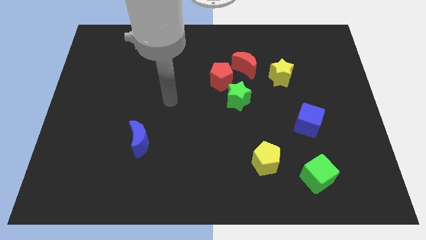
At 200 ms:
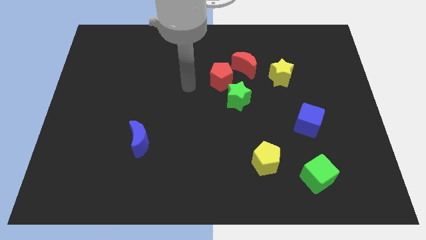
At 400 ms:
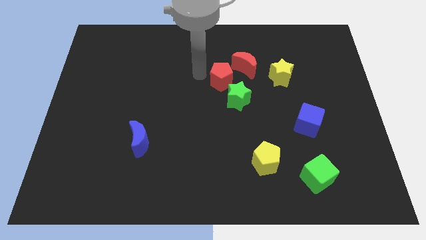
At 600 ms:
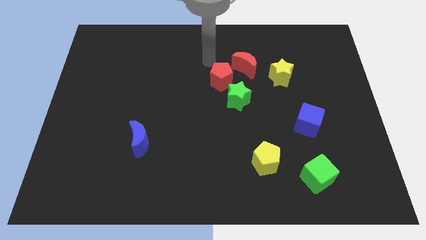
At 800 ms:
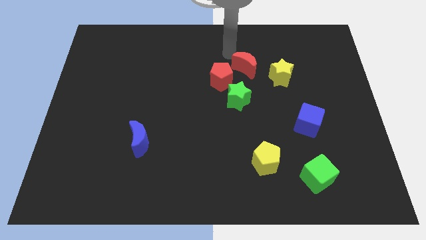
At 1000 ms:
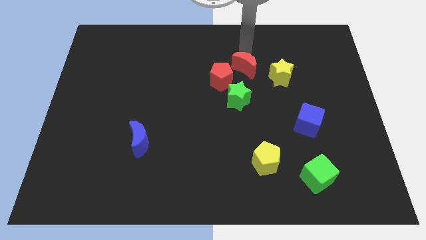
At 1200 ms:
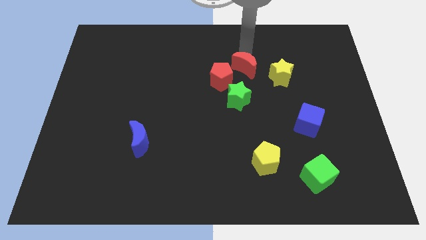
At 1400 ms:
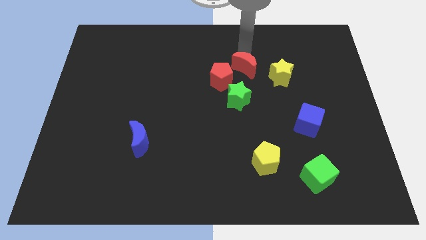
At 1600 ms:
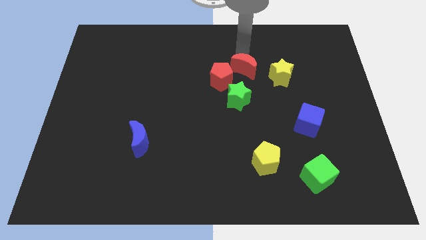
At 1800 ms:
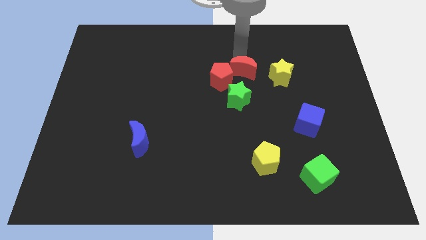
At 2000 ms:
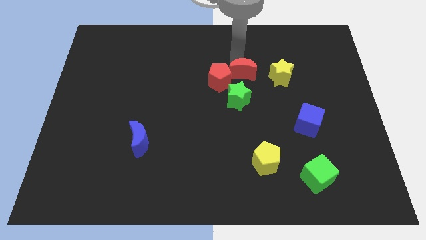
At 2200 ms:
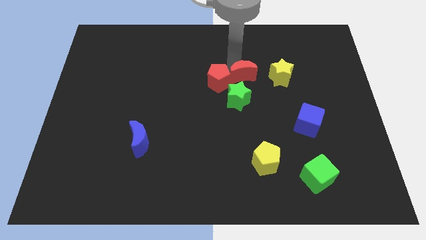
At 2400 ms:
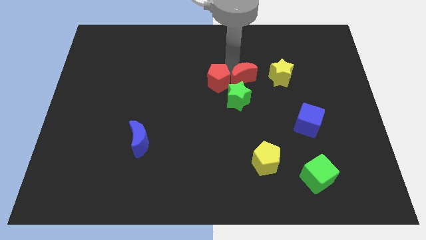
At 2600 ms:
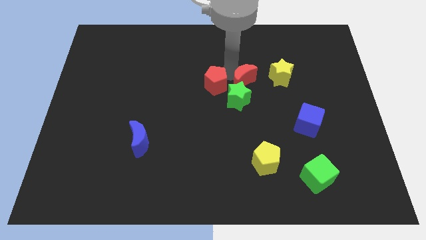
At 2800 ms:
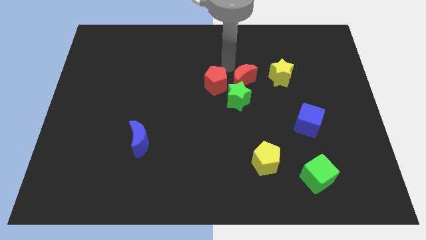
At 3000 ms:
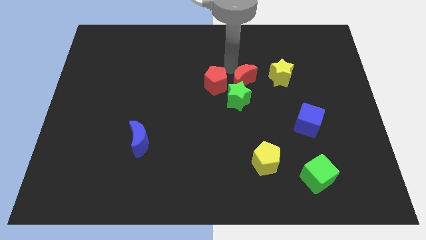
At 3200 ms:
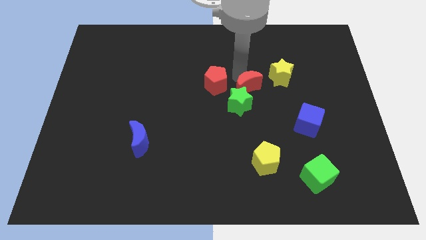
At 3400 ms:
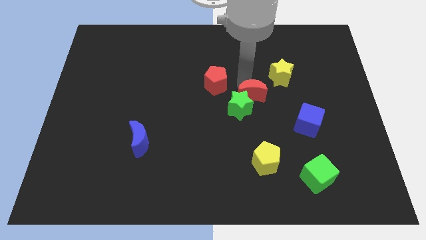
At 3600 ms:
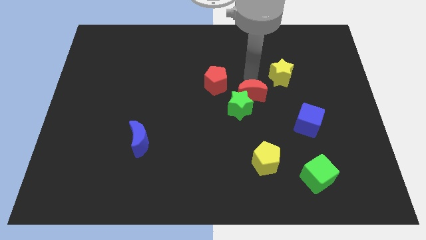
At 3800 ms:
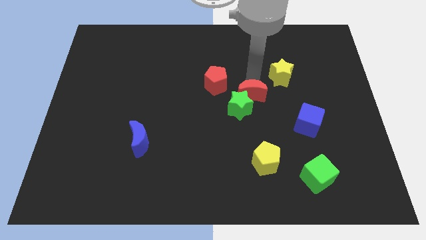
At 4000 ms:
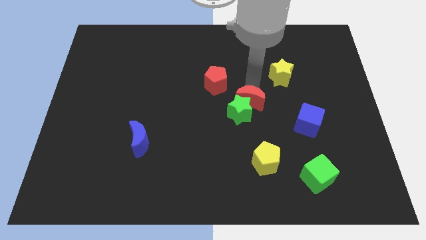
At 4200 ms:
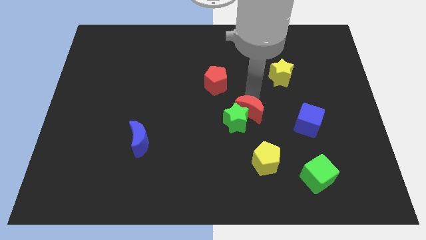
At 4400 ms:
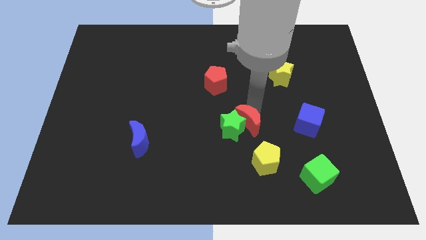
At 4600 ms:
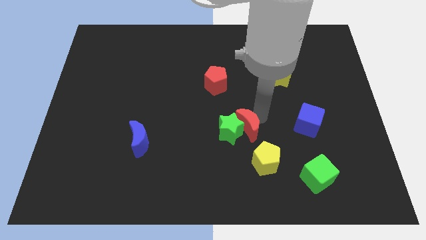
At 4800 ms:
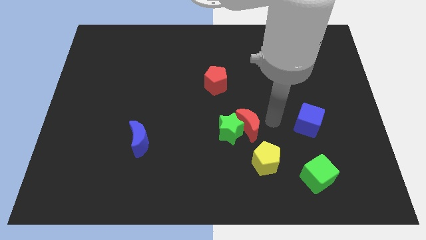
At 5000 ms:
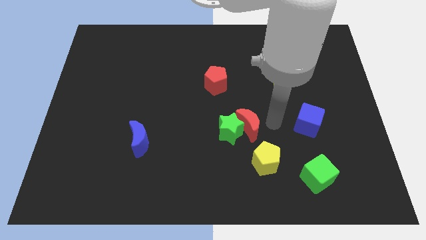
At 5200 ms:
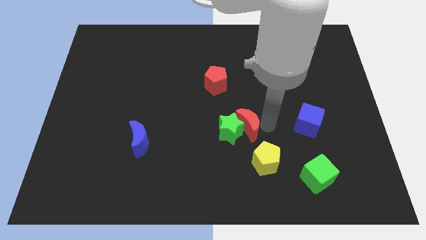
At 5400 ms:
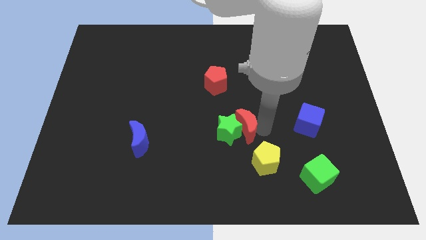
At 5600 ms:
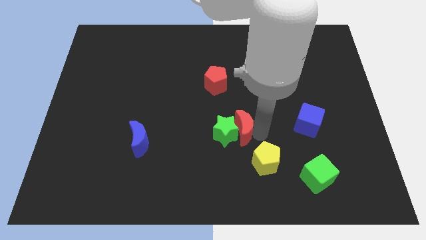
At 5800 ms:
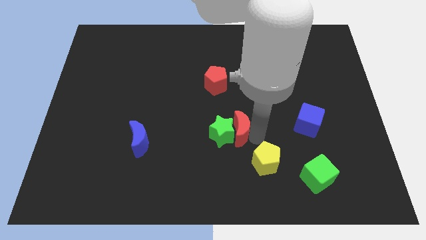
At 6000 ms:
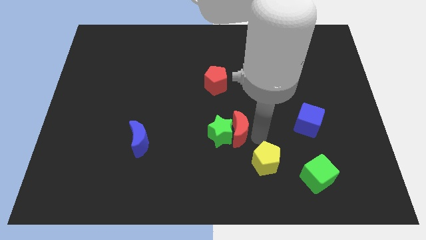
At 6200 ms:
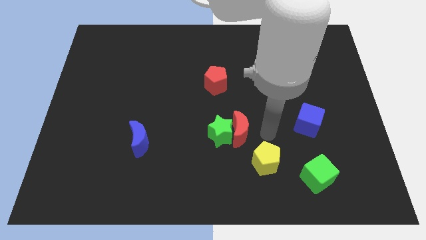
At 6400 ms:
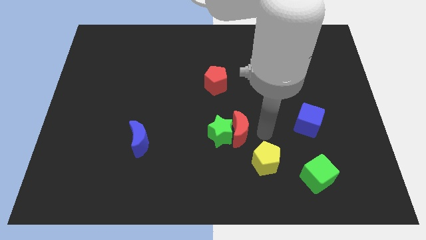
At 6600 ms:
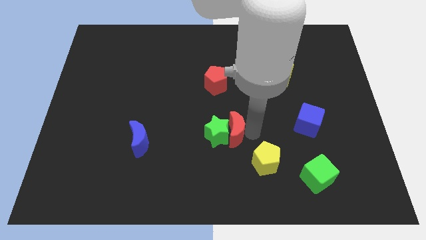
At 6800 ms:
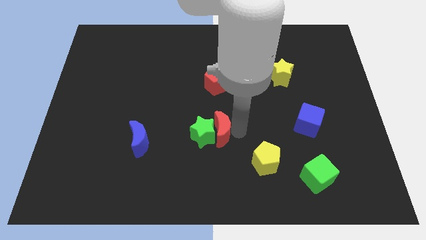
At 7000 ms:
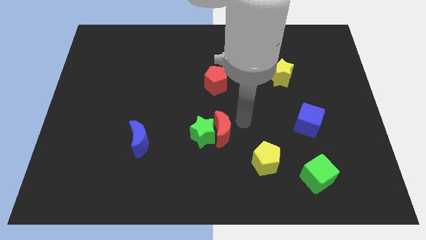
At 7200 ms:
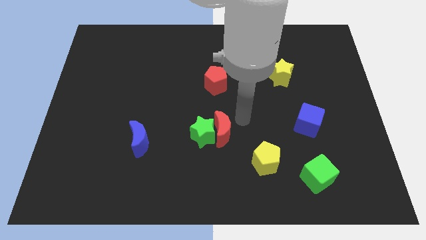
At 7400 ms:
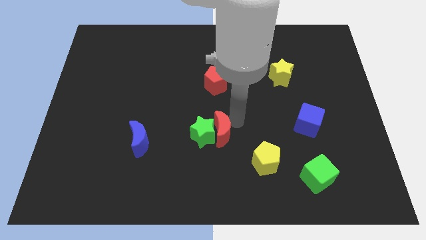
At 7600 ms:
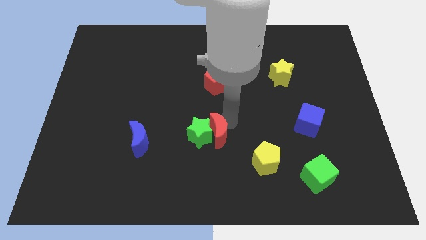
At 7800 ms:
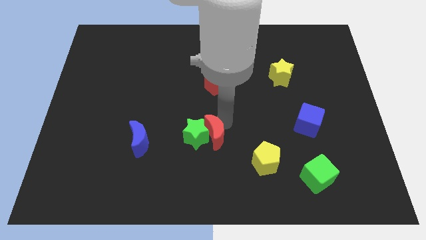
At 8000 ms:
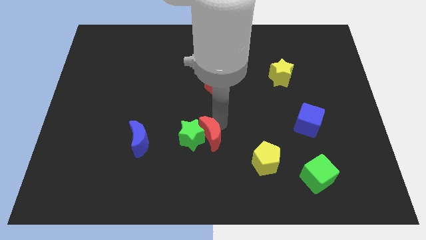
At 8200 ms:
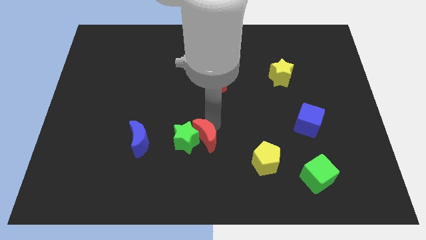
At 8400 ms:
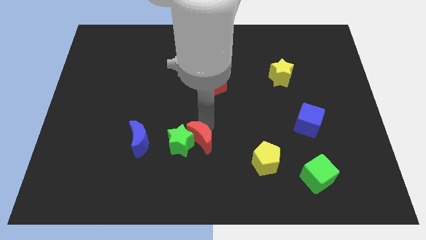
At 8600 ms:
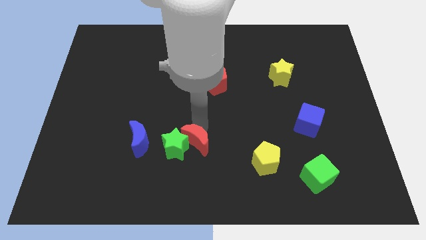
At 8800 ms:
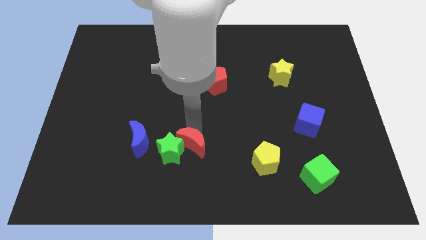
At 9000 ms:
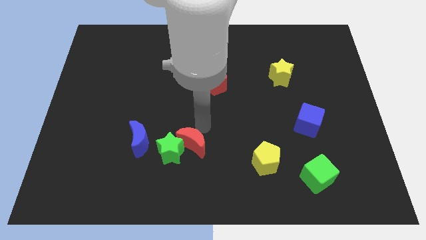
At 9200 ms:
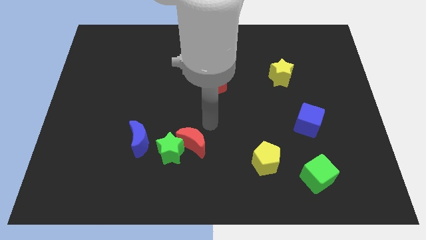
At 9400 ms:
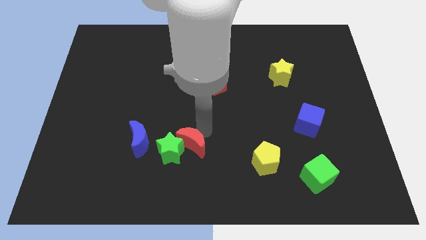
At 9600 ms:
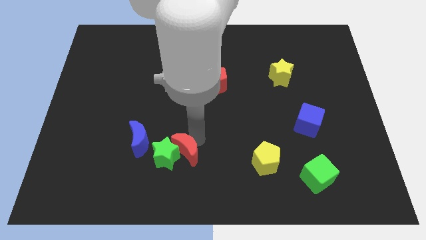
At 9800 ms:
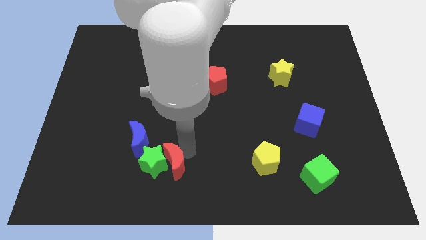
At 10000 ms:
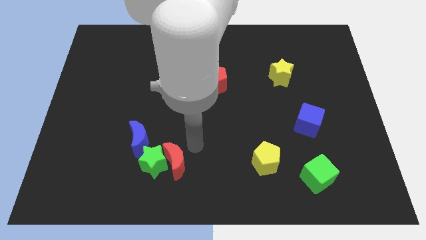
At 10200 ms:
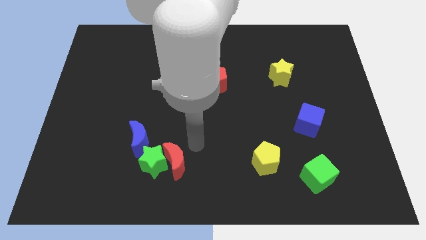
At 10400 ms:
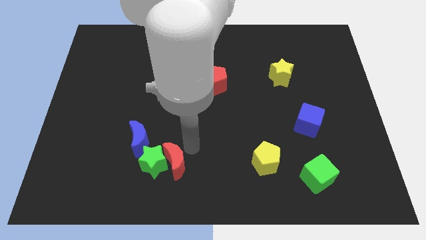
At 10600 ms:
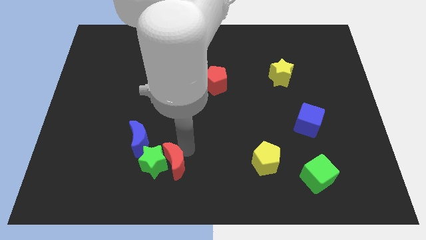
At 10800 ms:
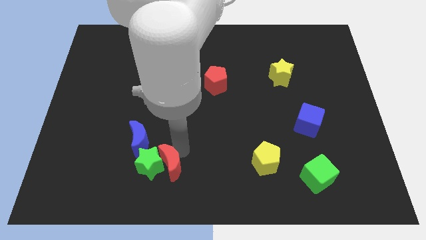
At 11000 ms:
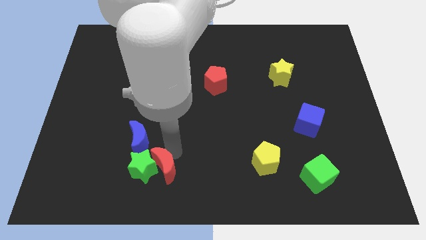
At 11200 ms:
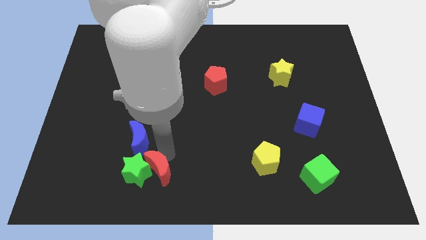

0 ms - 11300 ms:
slide the red moon below the blue moon

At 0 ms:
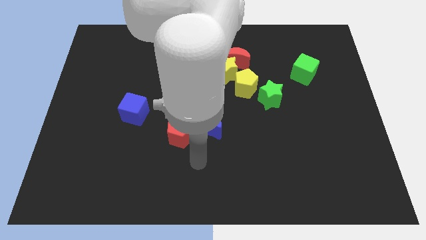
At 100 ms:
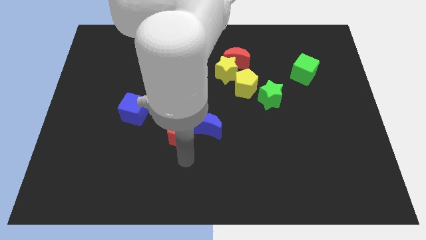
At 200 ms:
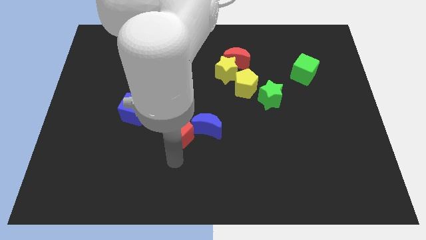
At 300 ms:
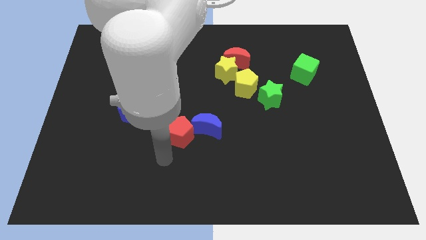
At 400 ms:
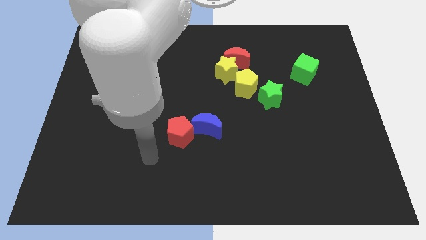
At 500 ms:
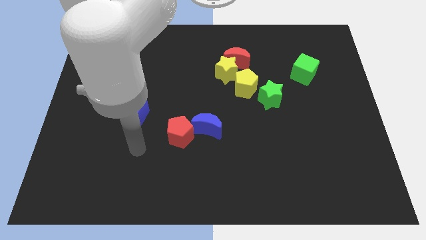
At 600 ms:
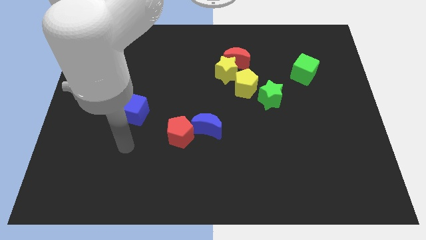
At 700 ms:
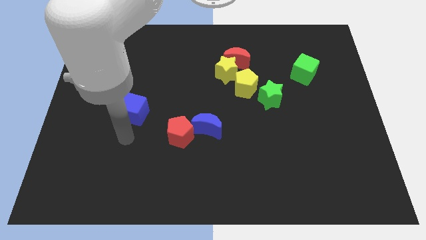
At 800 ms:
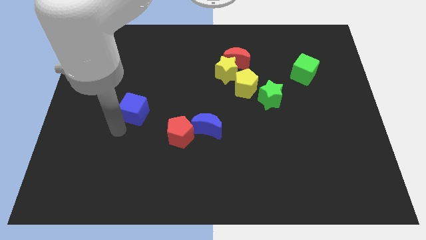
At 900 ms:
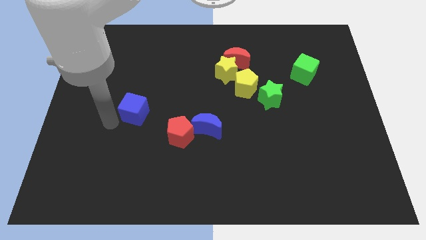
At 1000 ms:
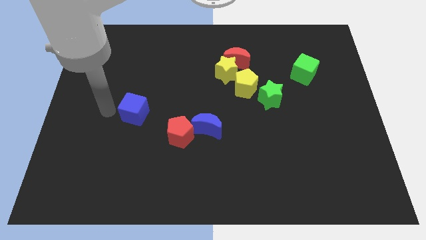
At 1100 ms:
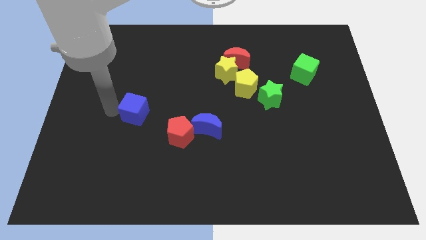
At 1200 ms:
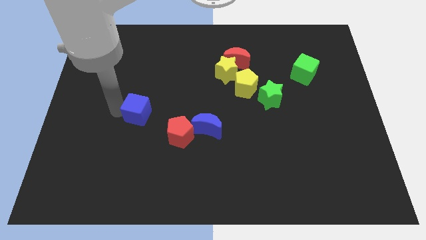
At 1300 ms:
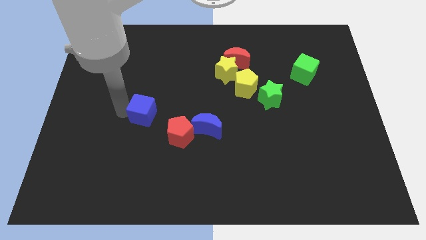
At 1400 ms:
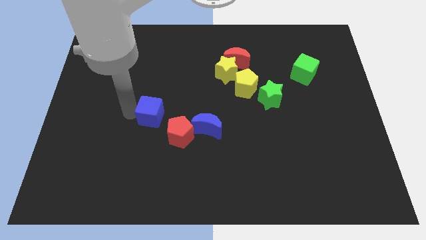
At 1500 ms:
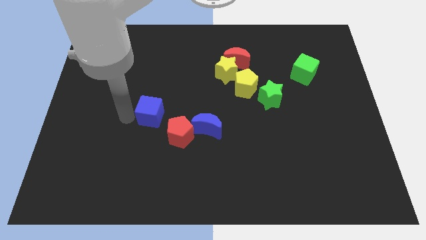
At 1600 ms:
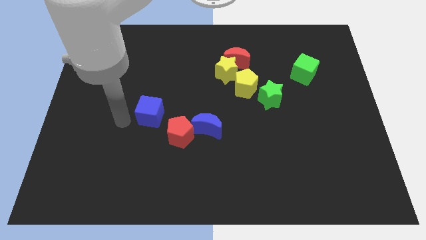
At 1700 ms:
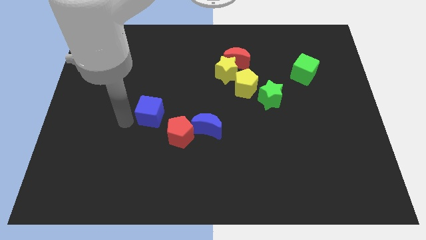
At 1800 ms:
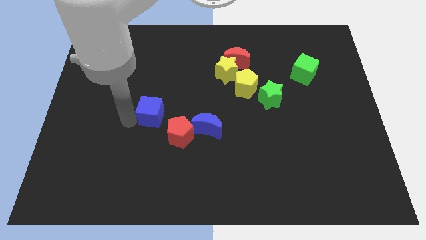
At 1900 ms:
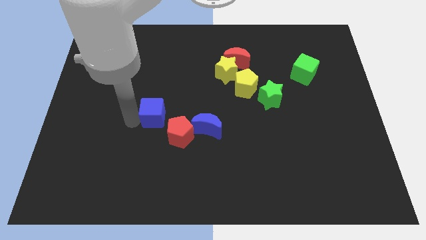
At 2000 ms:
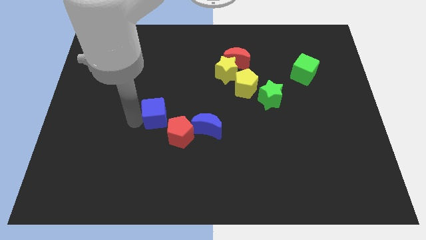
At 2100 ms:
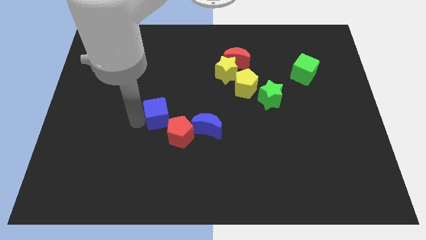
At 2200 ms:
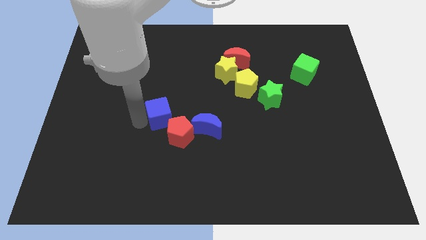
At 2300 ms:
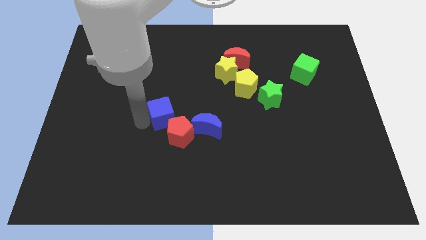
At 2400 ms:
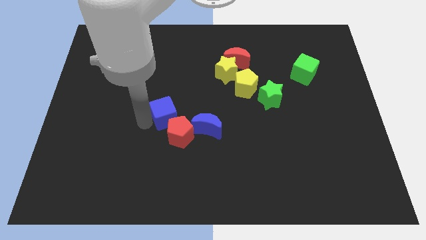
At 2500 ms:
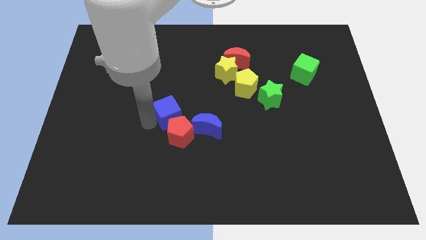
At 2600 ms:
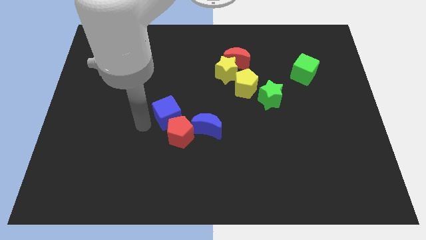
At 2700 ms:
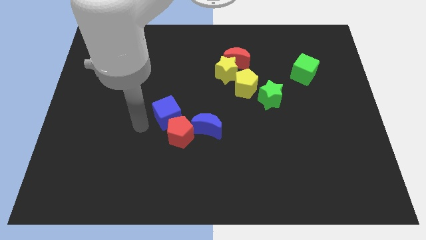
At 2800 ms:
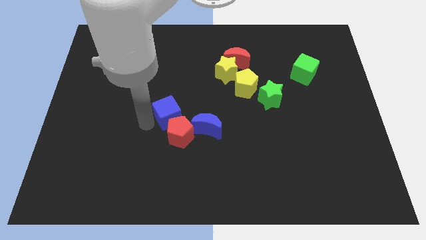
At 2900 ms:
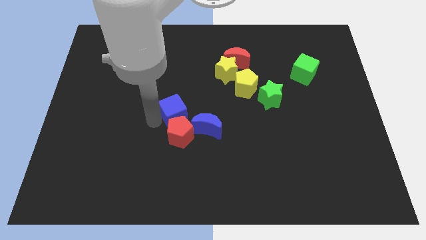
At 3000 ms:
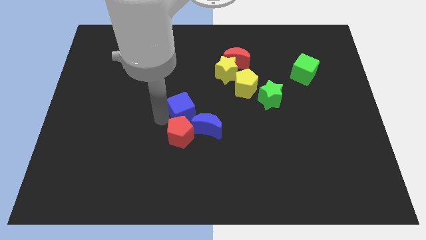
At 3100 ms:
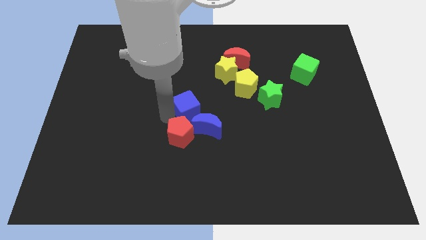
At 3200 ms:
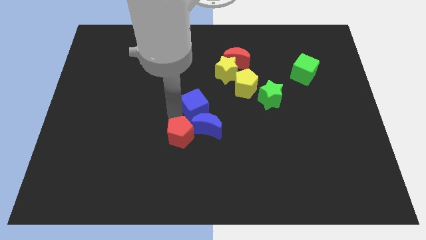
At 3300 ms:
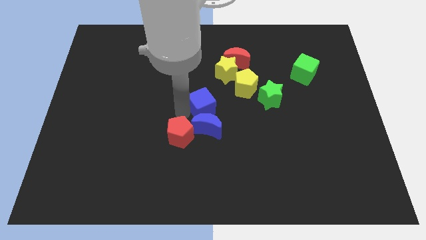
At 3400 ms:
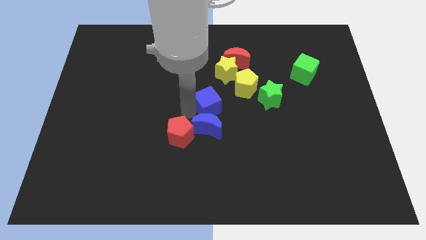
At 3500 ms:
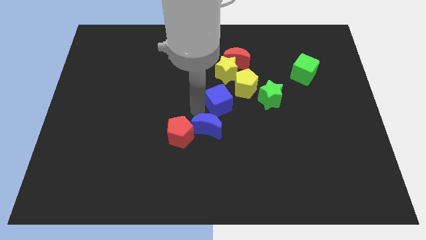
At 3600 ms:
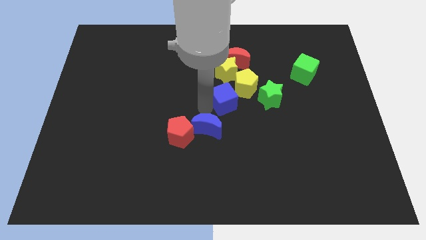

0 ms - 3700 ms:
slide the blue cube below the red moon
